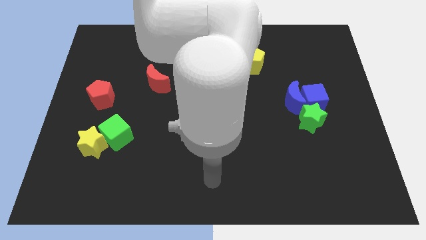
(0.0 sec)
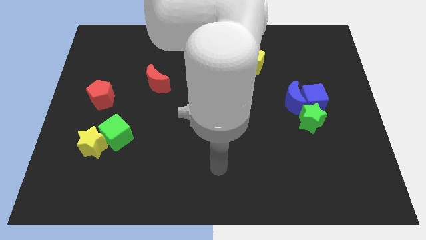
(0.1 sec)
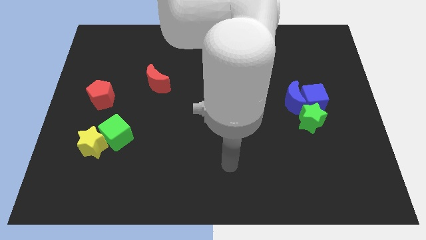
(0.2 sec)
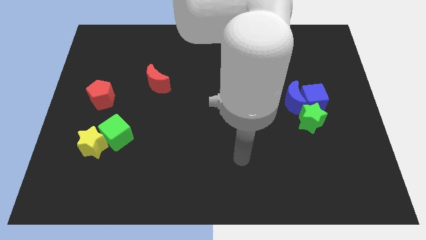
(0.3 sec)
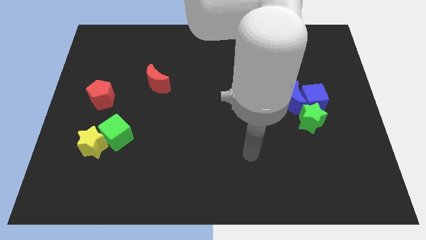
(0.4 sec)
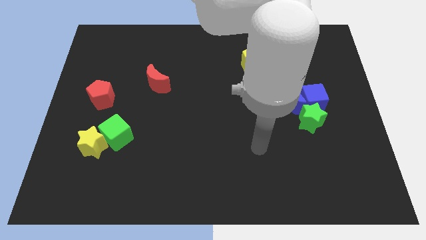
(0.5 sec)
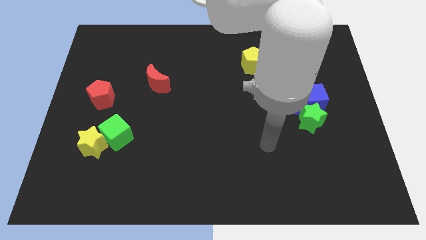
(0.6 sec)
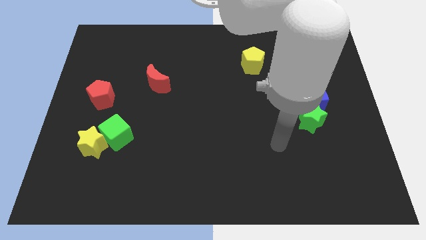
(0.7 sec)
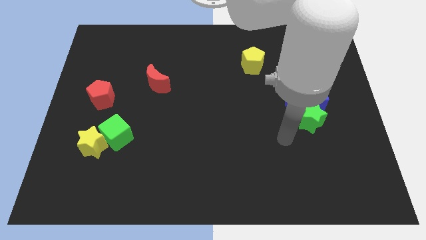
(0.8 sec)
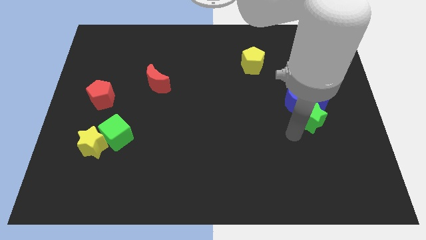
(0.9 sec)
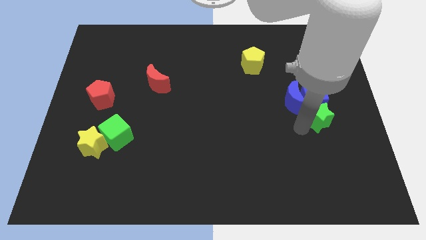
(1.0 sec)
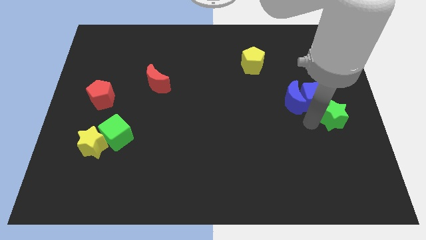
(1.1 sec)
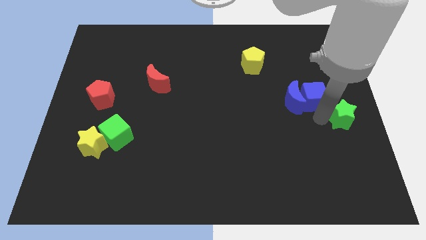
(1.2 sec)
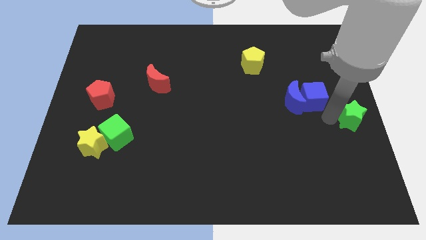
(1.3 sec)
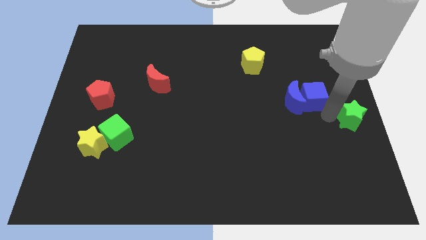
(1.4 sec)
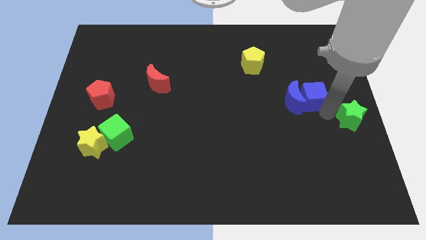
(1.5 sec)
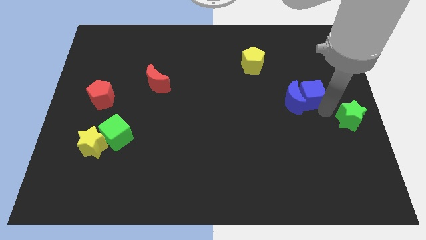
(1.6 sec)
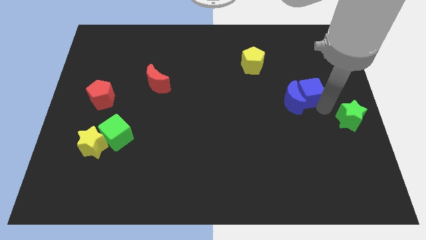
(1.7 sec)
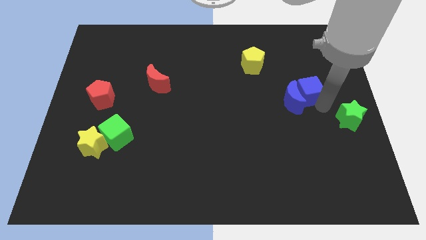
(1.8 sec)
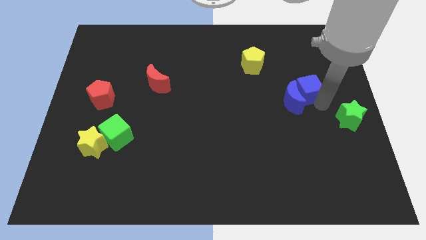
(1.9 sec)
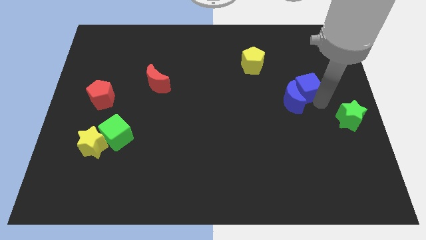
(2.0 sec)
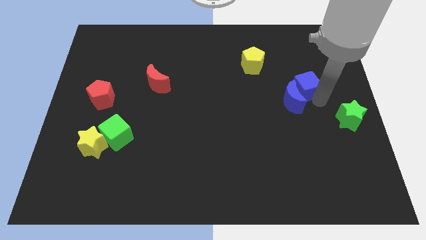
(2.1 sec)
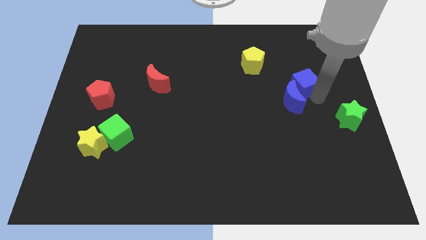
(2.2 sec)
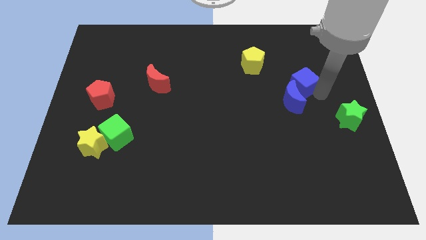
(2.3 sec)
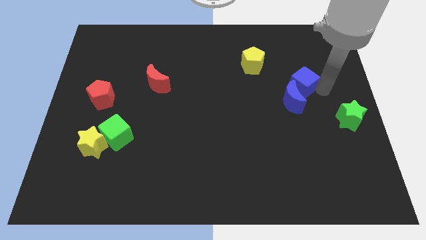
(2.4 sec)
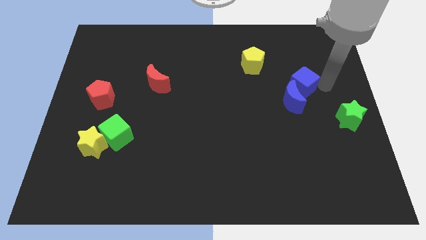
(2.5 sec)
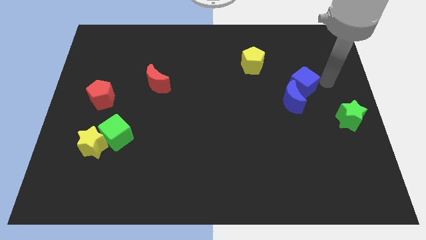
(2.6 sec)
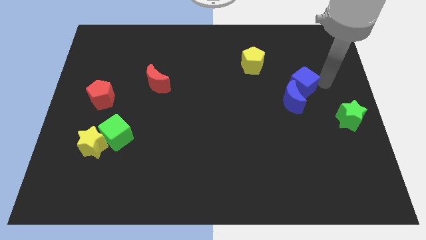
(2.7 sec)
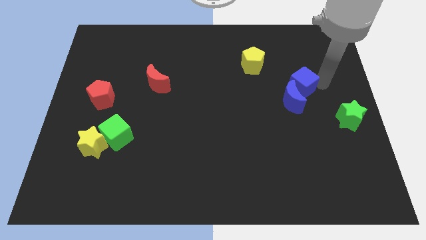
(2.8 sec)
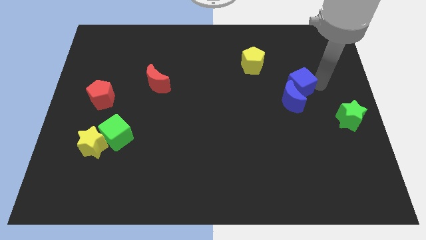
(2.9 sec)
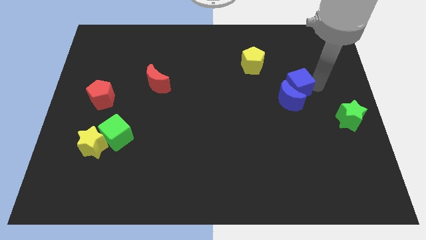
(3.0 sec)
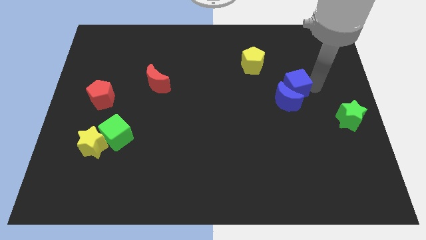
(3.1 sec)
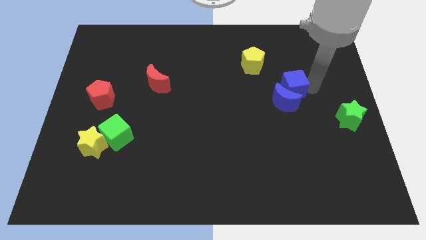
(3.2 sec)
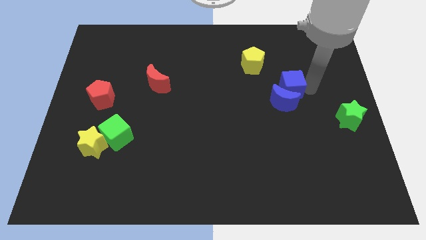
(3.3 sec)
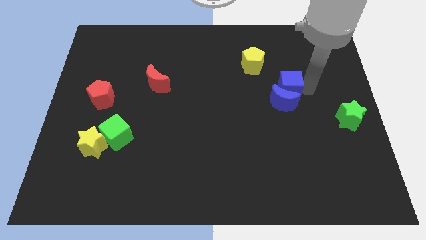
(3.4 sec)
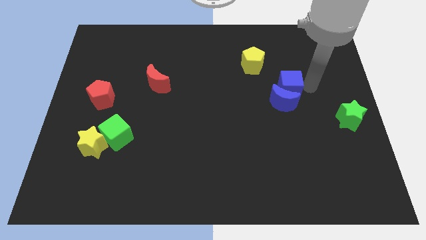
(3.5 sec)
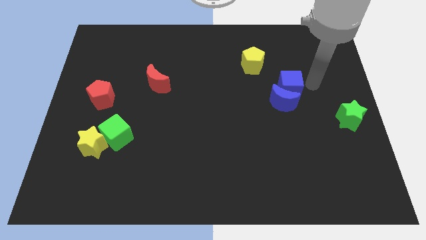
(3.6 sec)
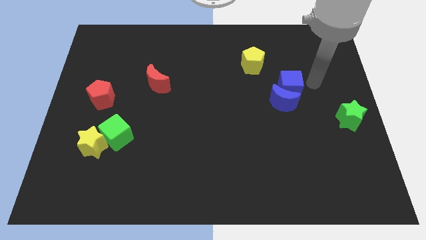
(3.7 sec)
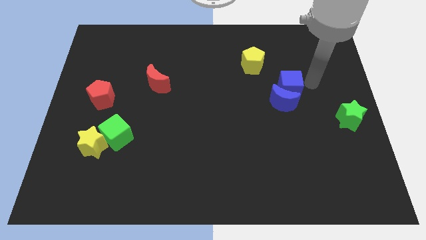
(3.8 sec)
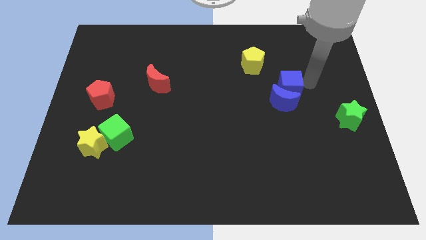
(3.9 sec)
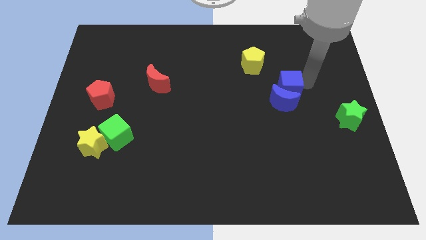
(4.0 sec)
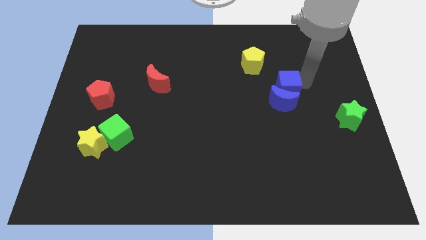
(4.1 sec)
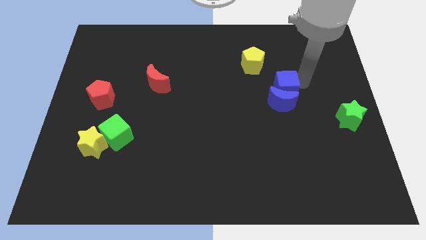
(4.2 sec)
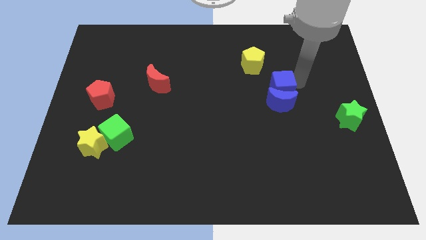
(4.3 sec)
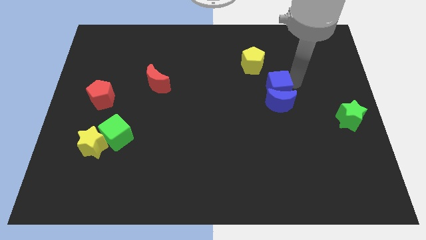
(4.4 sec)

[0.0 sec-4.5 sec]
slightly push the blue cube left

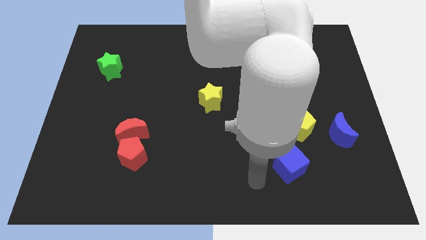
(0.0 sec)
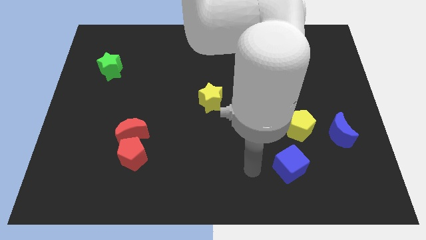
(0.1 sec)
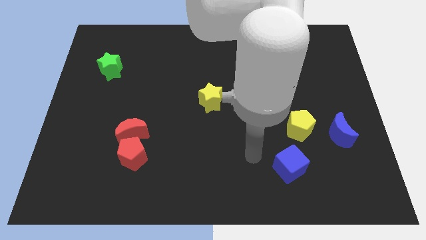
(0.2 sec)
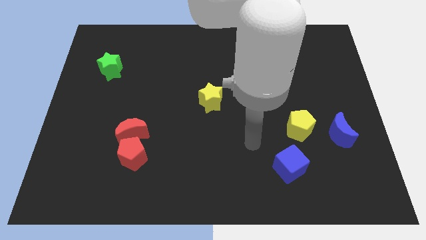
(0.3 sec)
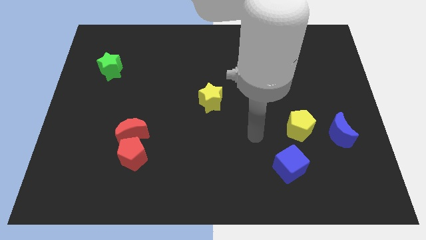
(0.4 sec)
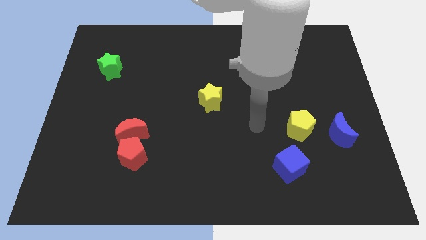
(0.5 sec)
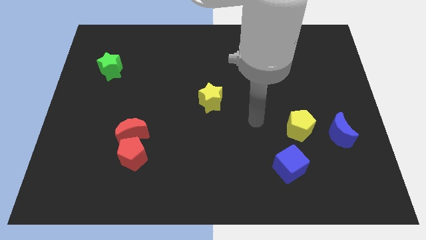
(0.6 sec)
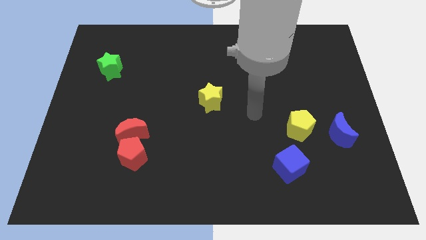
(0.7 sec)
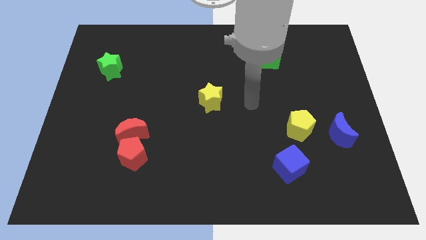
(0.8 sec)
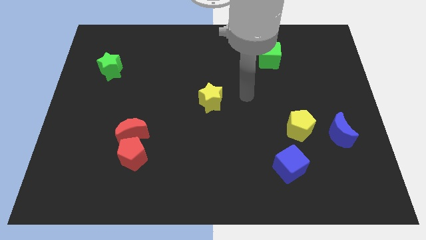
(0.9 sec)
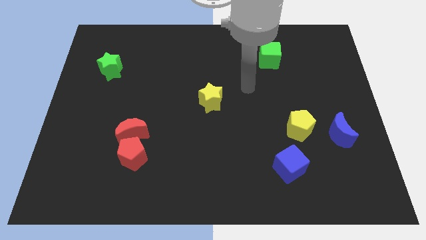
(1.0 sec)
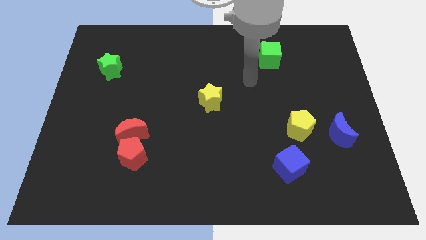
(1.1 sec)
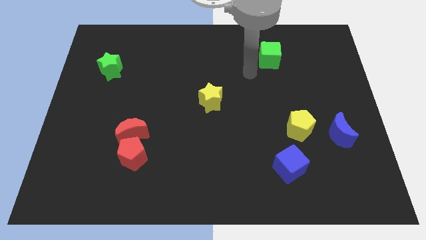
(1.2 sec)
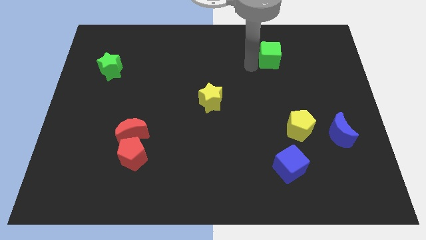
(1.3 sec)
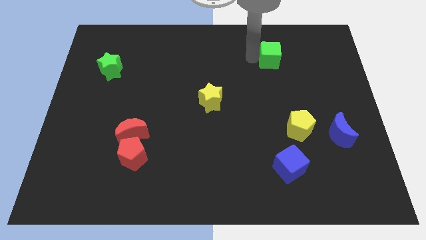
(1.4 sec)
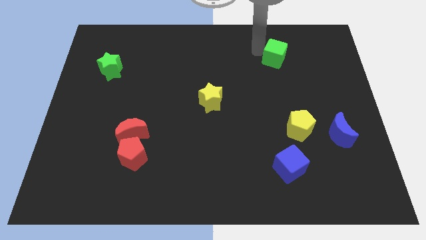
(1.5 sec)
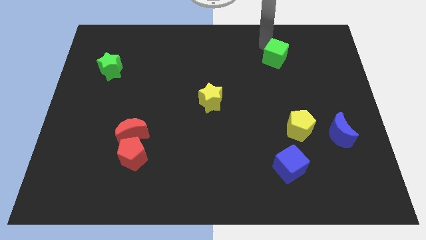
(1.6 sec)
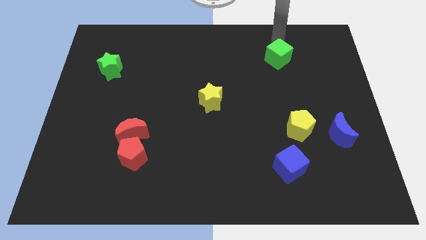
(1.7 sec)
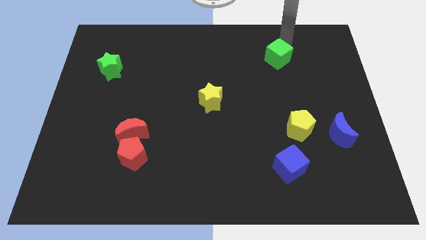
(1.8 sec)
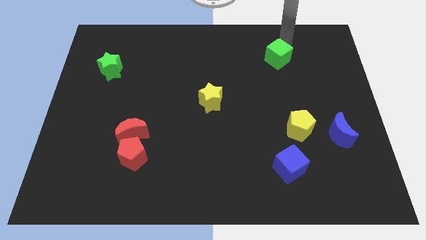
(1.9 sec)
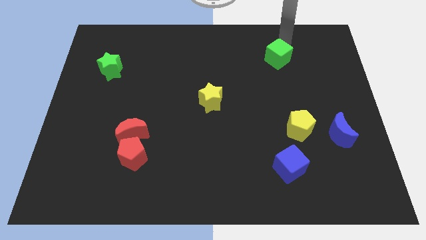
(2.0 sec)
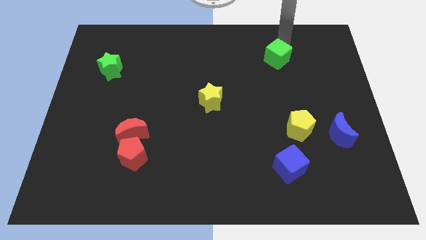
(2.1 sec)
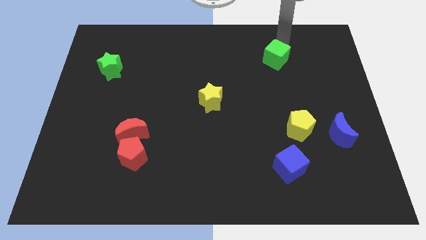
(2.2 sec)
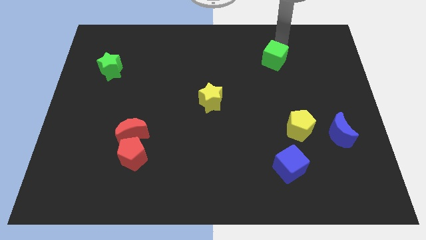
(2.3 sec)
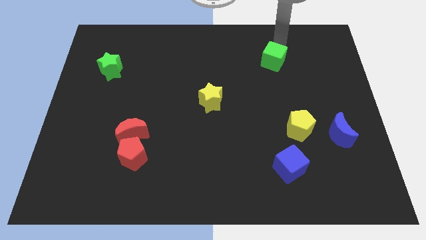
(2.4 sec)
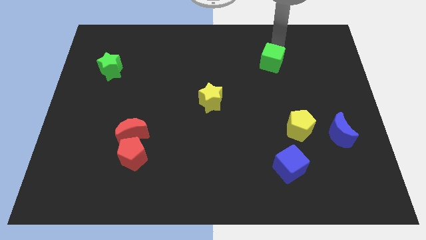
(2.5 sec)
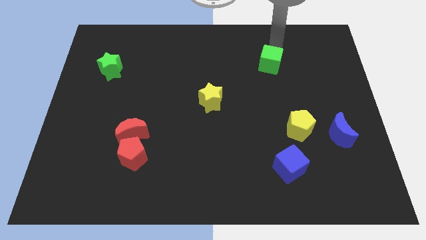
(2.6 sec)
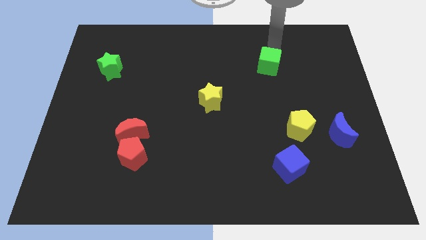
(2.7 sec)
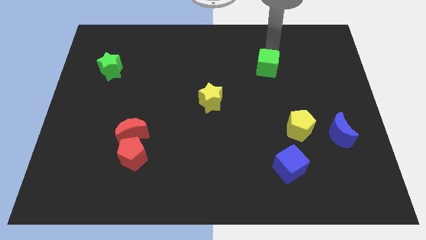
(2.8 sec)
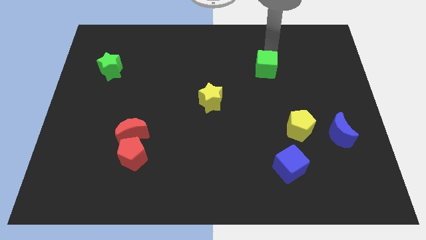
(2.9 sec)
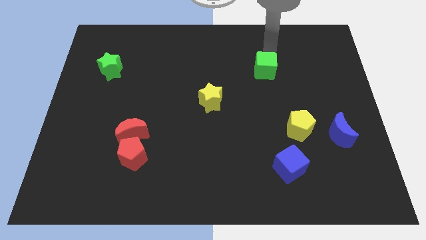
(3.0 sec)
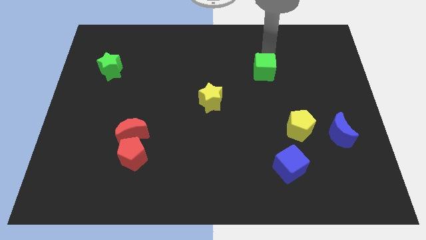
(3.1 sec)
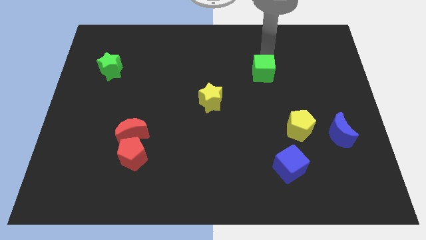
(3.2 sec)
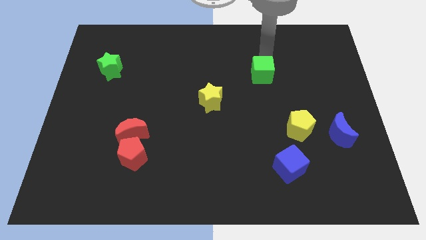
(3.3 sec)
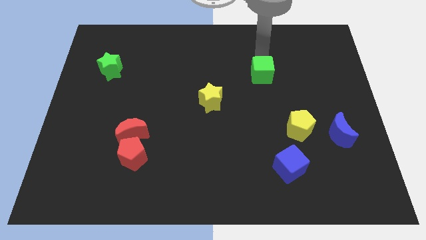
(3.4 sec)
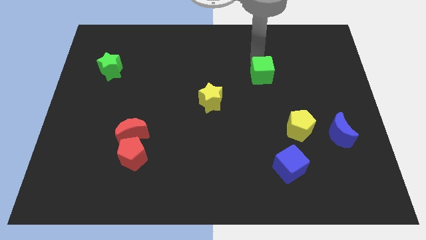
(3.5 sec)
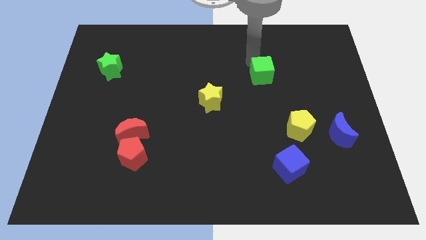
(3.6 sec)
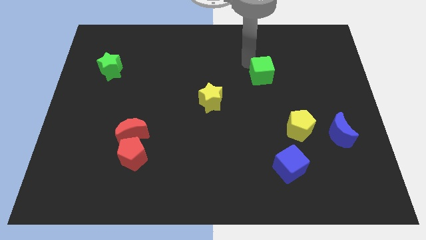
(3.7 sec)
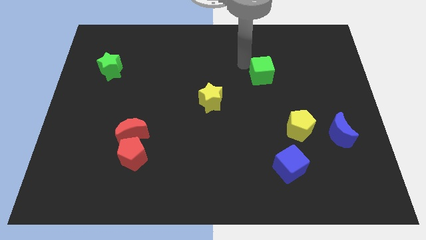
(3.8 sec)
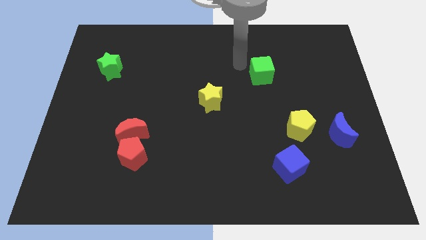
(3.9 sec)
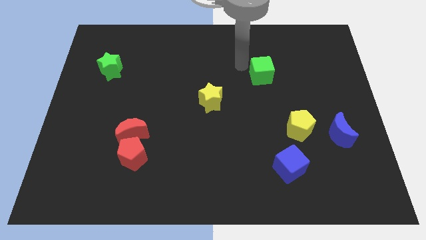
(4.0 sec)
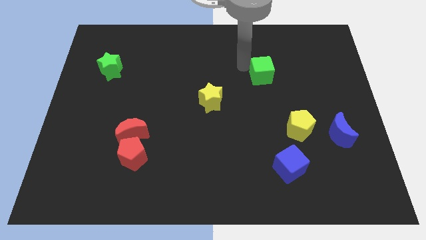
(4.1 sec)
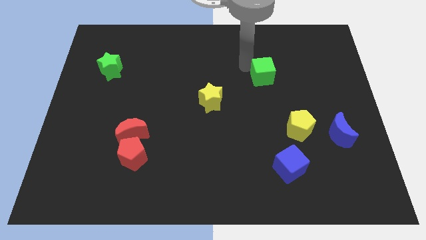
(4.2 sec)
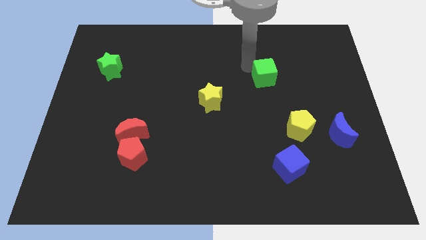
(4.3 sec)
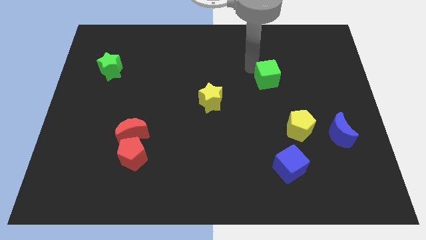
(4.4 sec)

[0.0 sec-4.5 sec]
slightly push the green cube downwards
